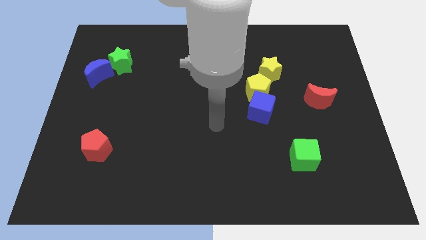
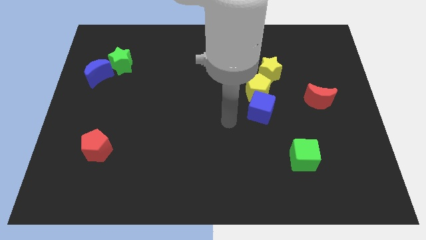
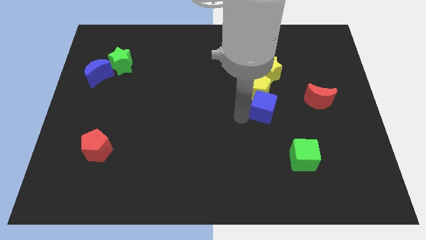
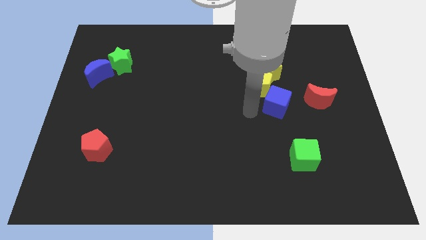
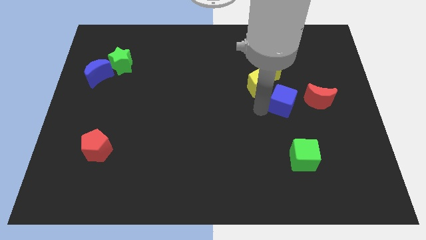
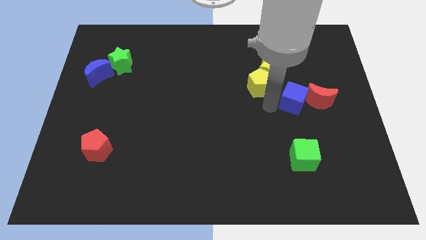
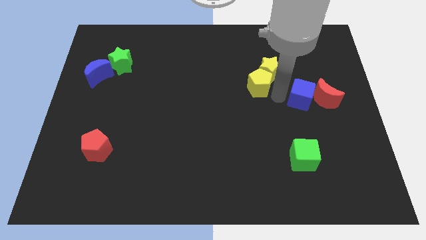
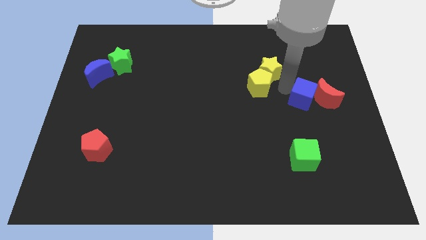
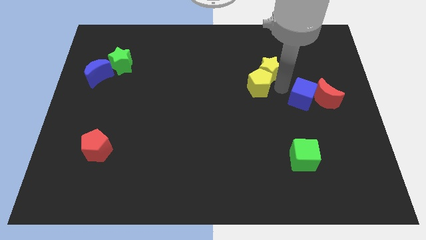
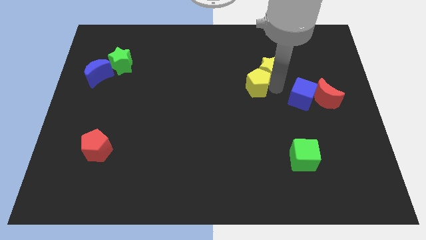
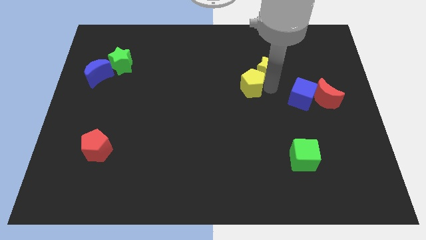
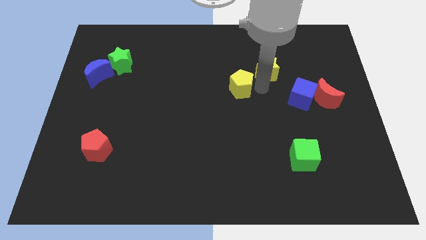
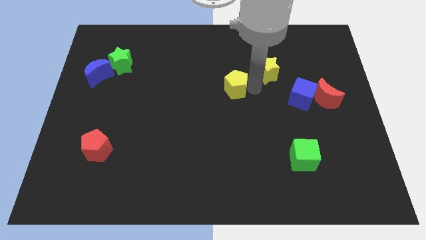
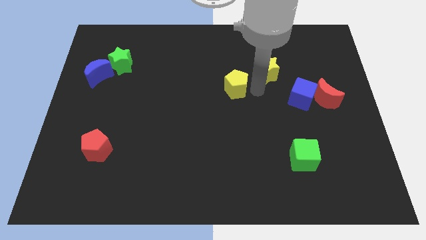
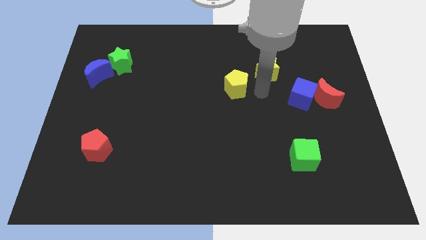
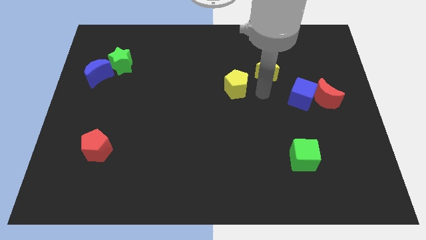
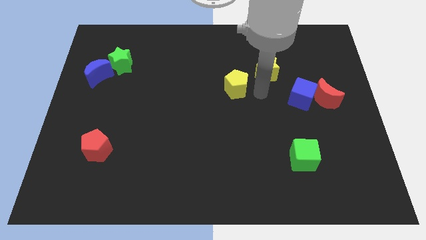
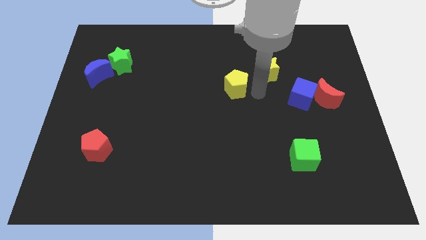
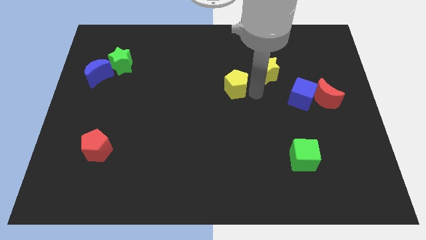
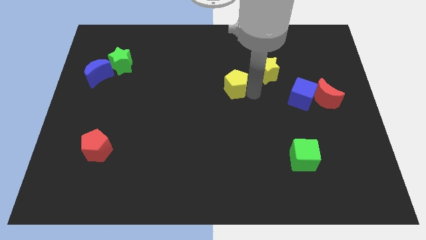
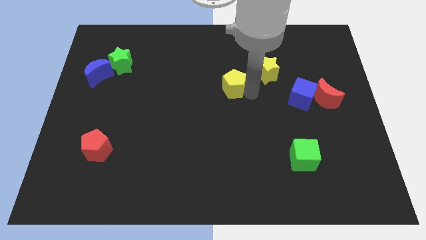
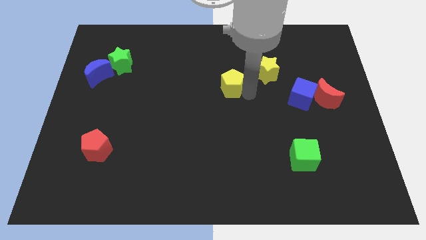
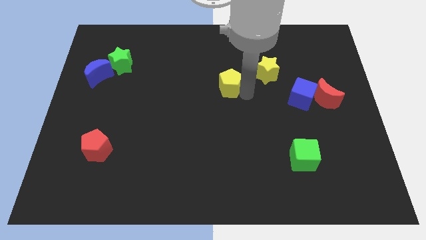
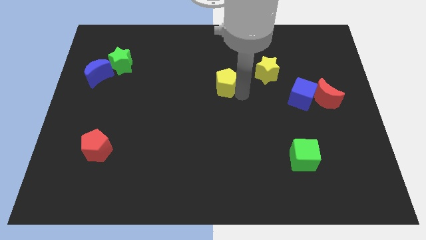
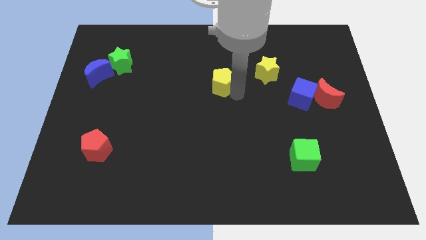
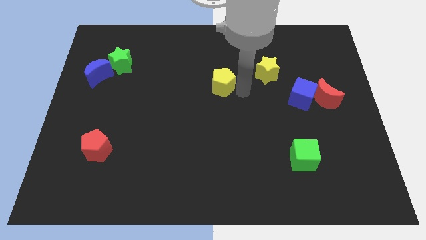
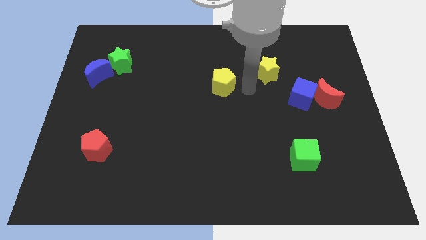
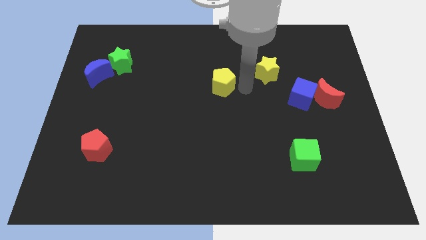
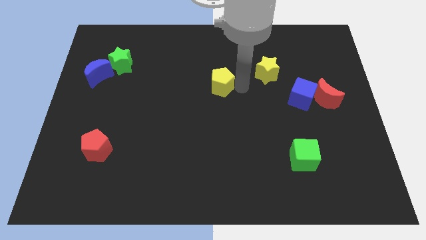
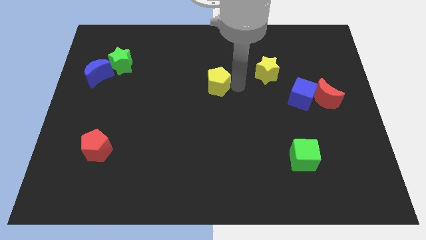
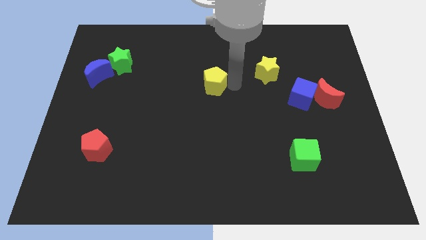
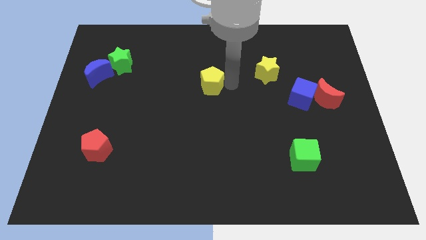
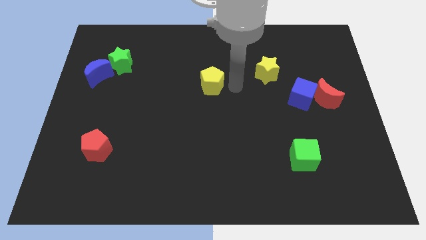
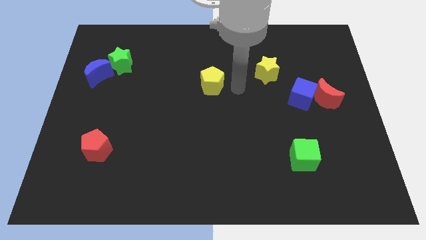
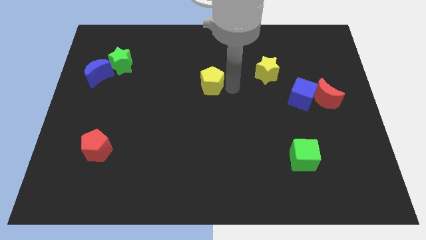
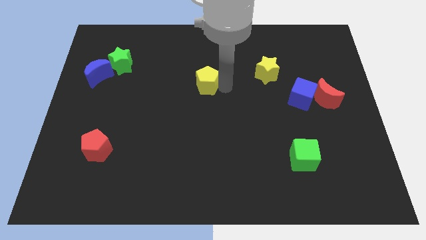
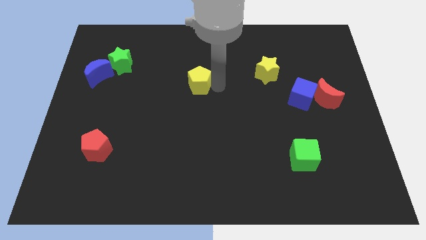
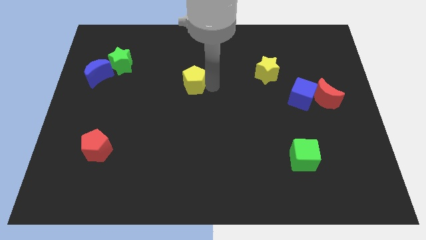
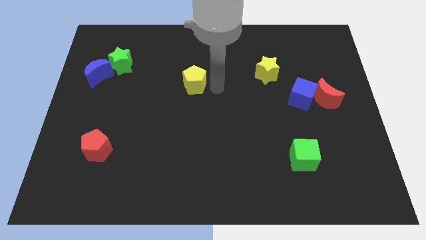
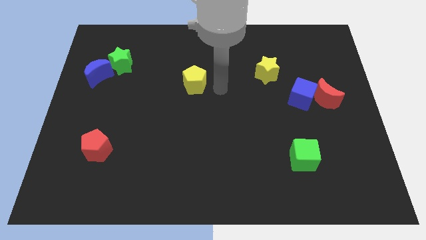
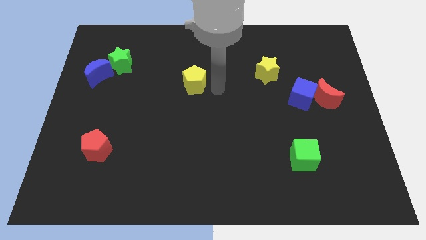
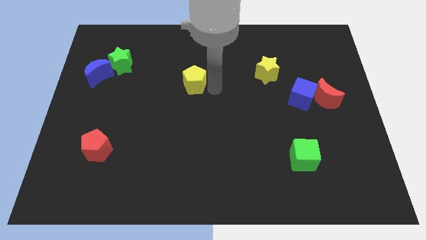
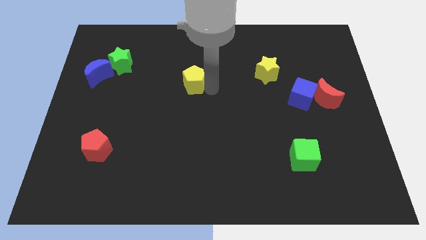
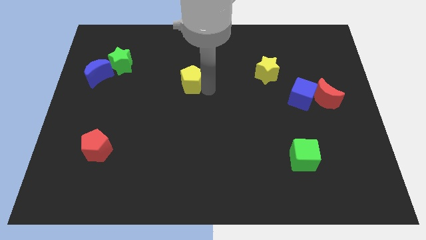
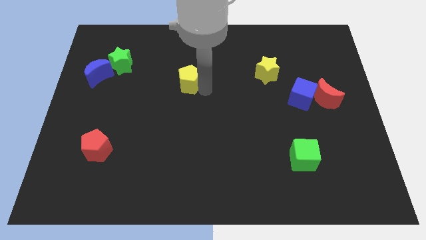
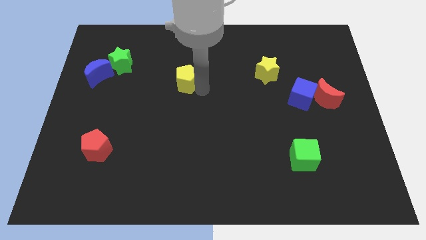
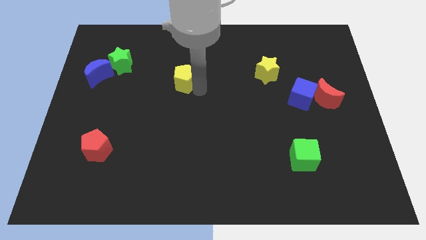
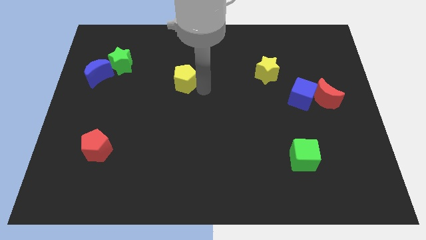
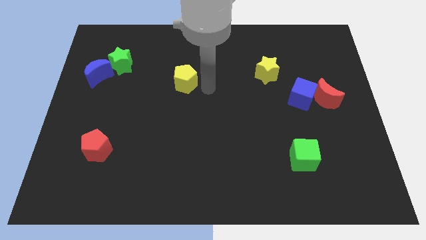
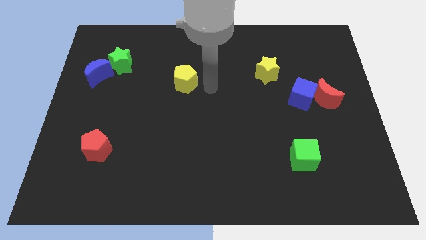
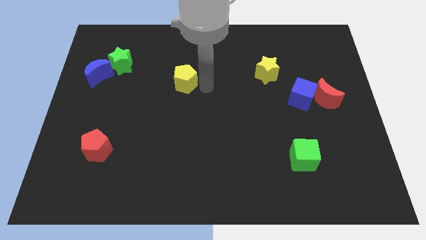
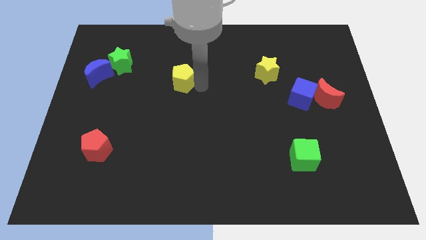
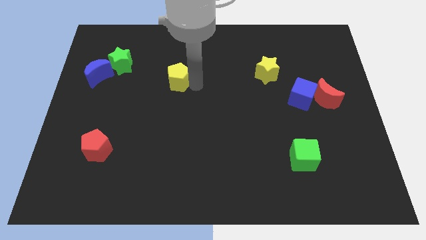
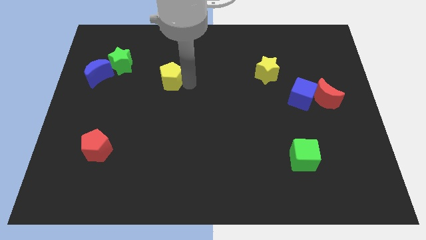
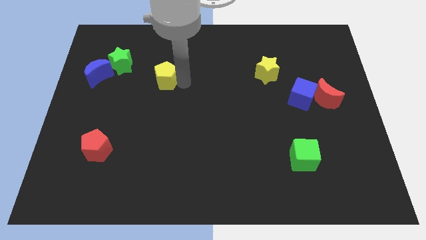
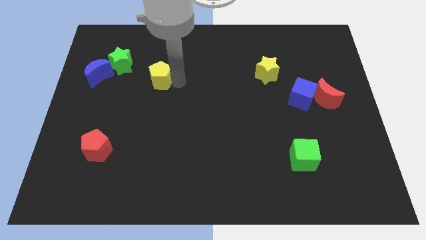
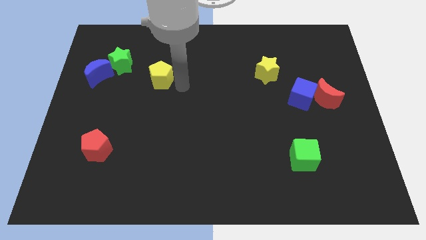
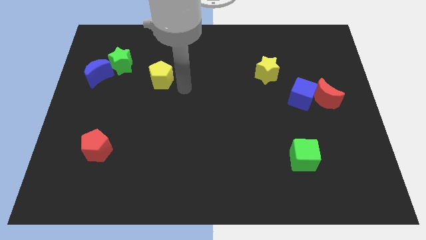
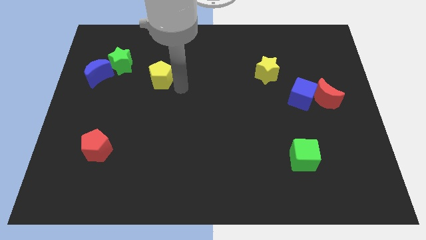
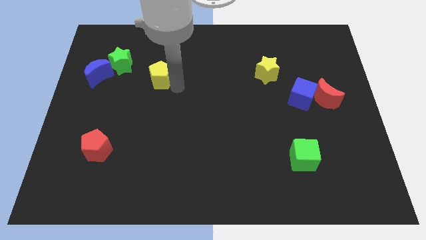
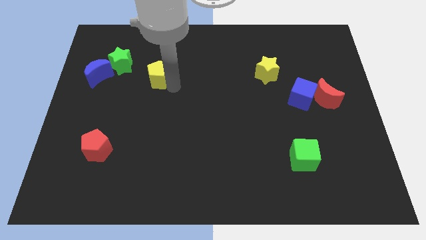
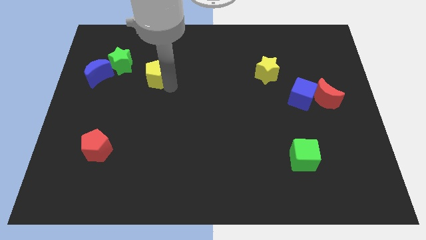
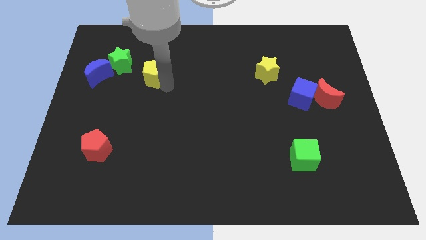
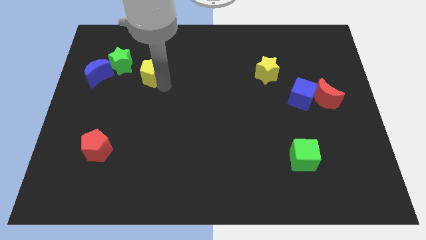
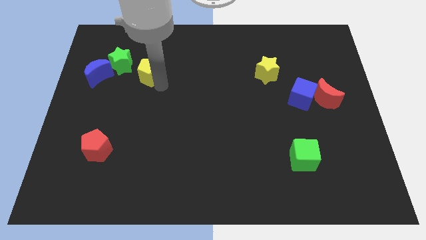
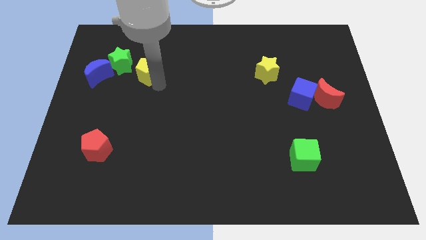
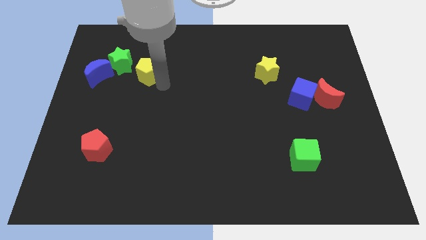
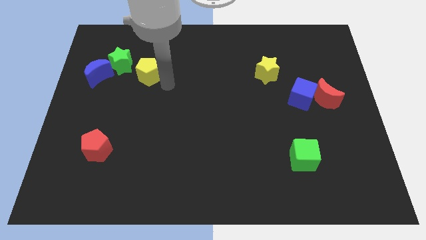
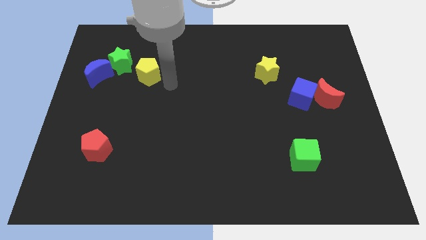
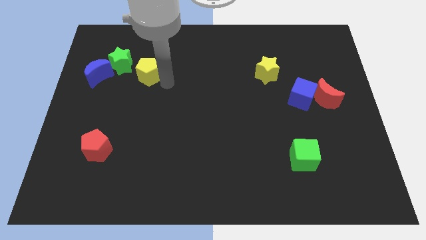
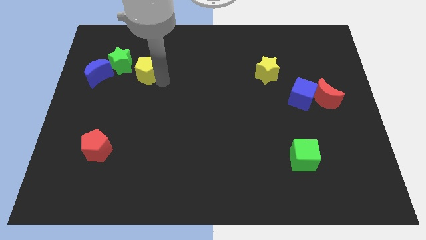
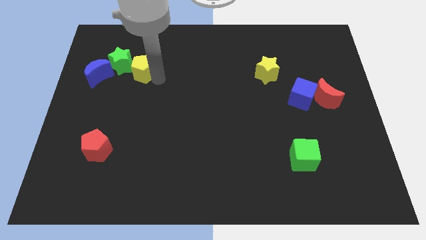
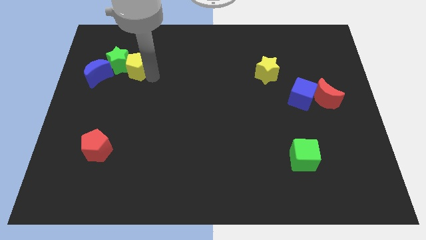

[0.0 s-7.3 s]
slide the yellow pentagon to the green star

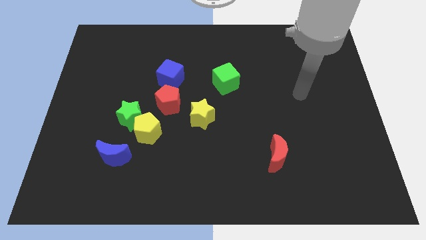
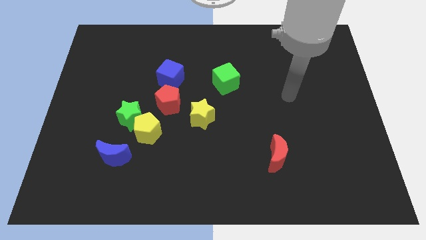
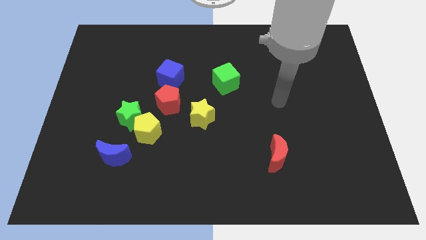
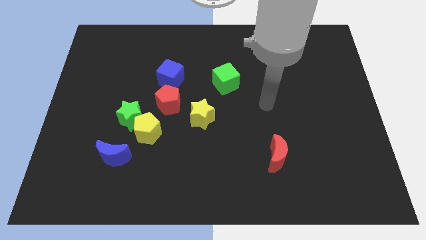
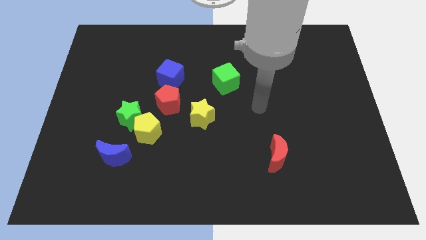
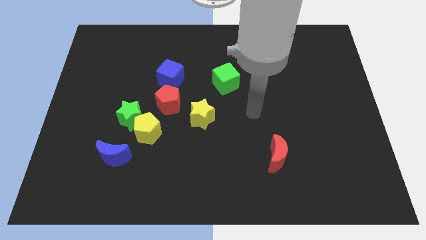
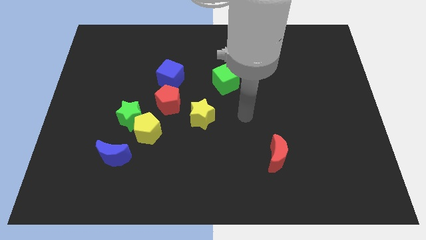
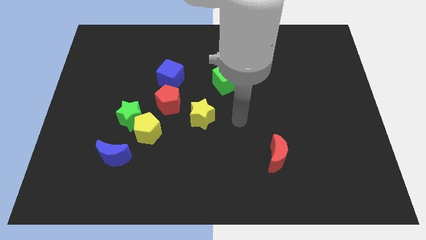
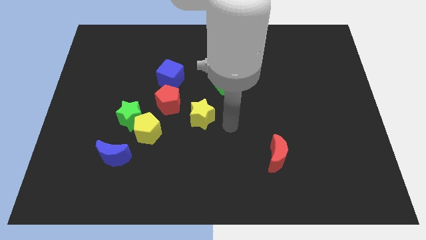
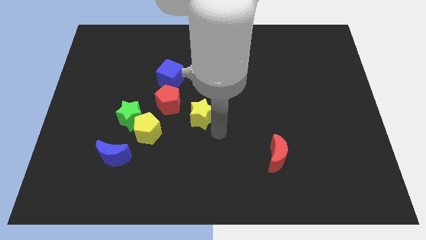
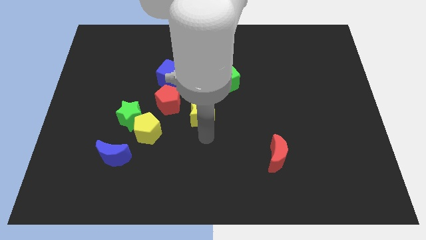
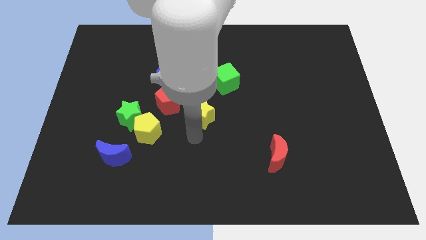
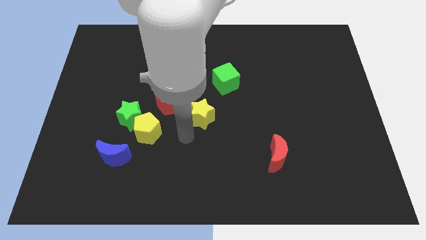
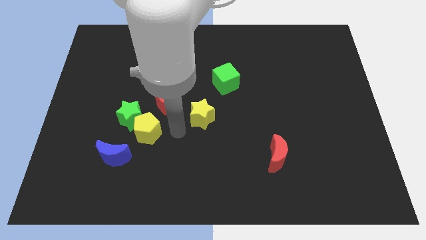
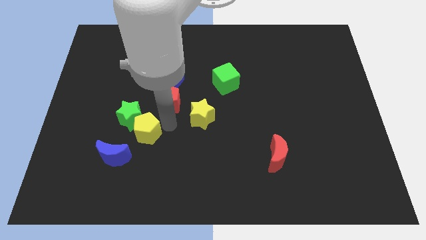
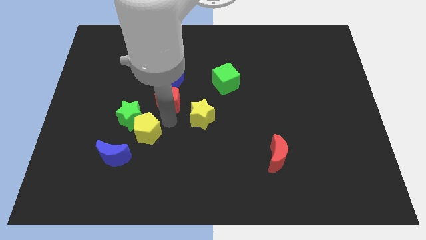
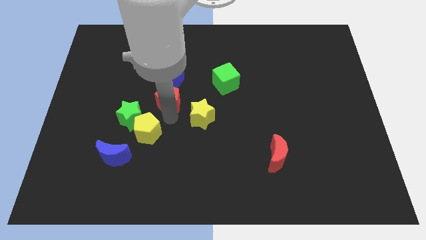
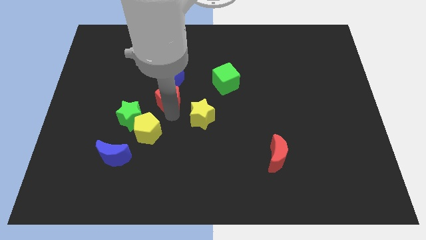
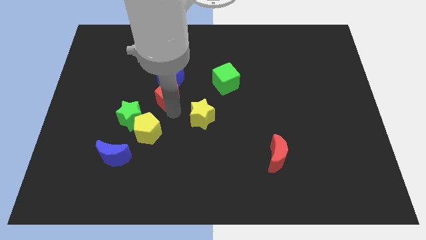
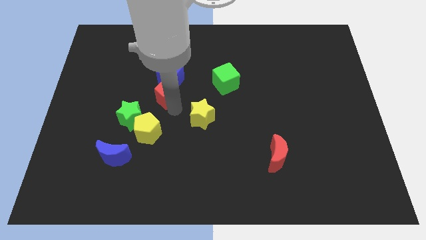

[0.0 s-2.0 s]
put the red pentagon next to the blue cube
